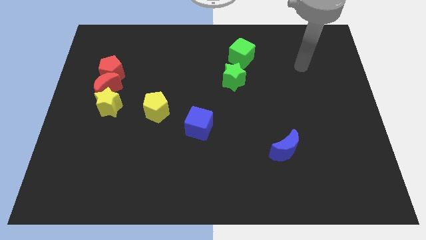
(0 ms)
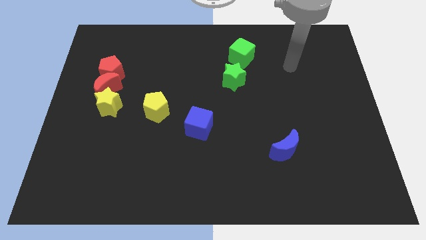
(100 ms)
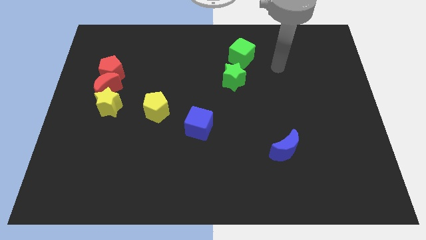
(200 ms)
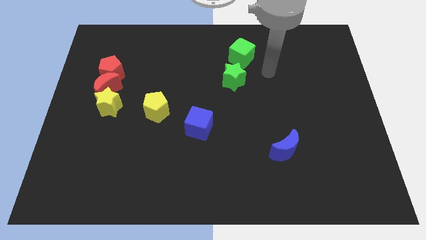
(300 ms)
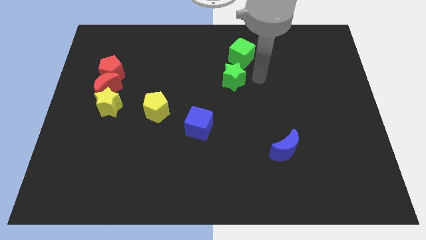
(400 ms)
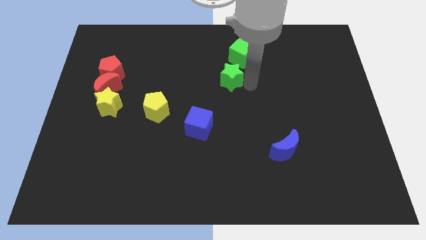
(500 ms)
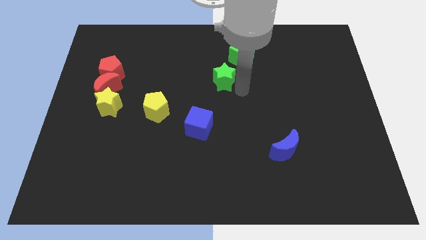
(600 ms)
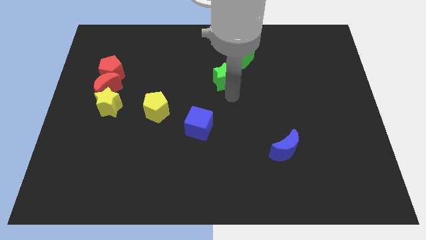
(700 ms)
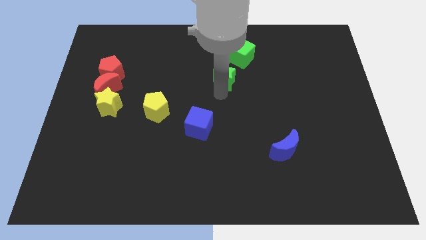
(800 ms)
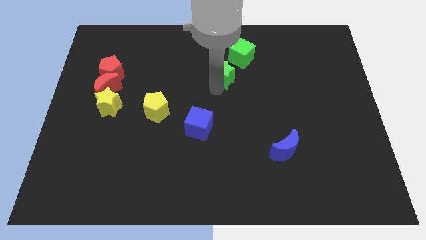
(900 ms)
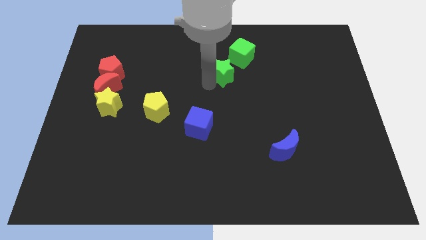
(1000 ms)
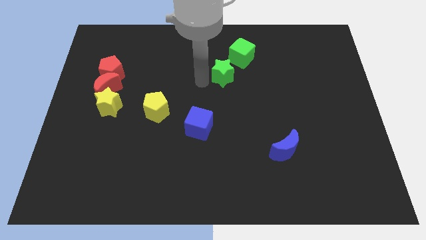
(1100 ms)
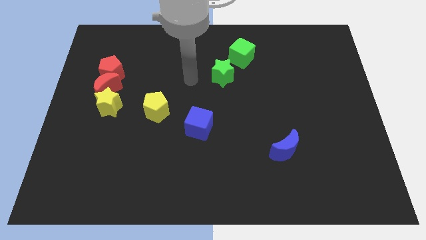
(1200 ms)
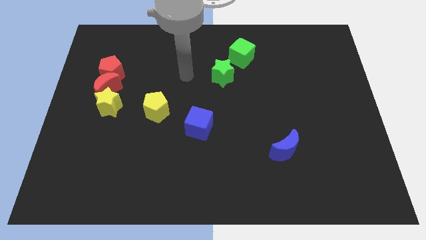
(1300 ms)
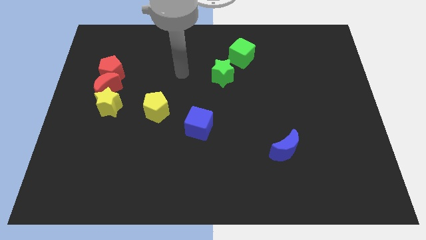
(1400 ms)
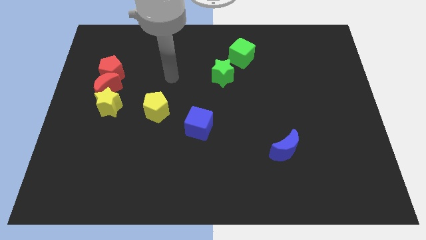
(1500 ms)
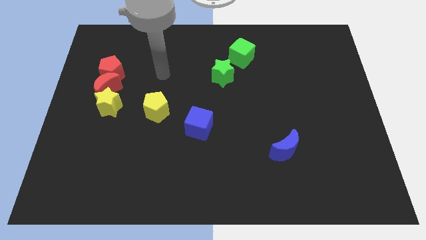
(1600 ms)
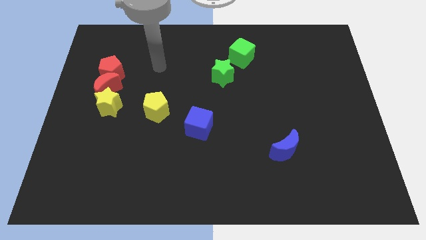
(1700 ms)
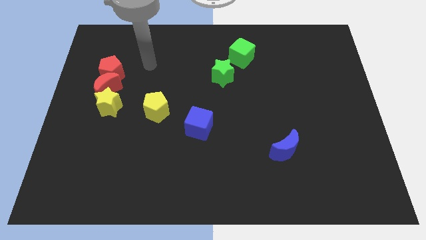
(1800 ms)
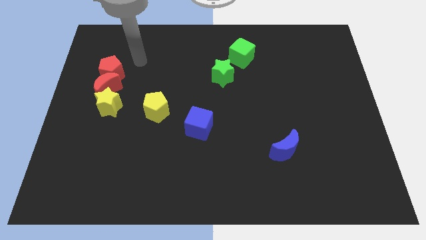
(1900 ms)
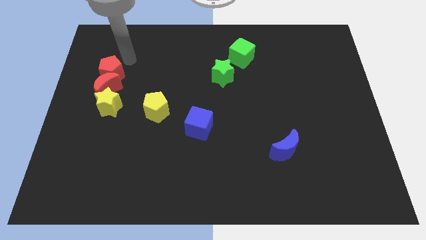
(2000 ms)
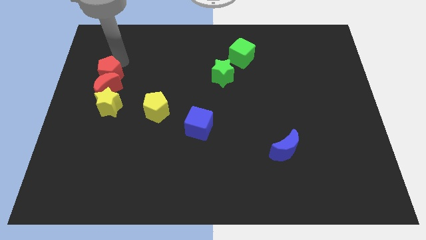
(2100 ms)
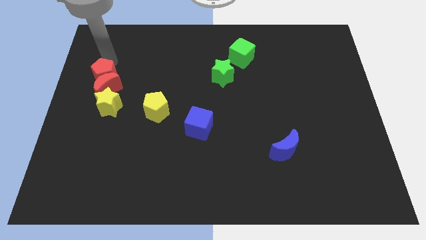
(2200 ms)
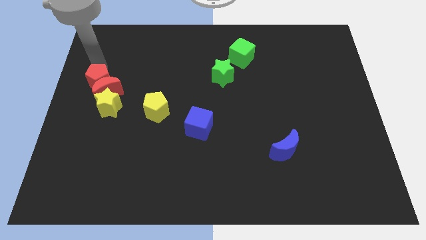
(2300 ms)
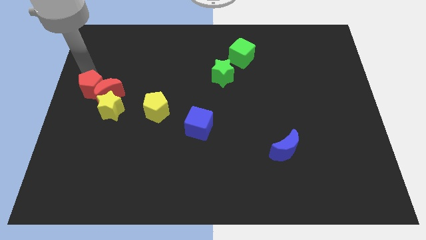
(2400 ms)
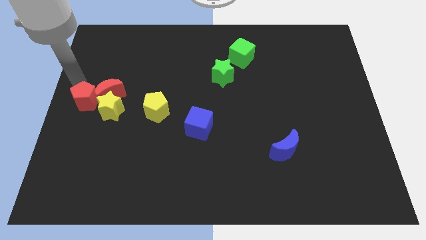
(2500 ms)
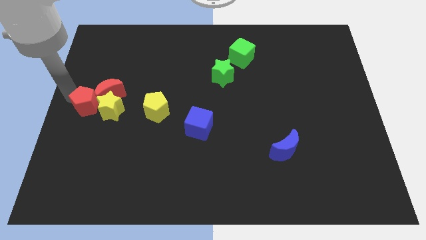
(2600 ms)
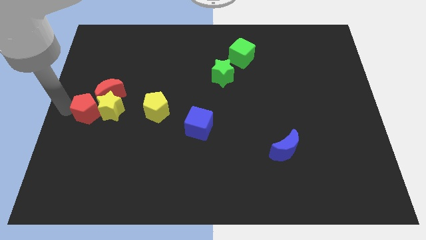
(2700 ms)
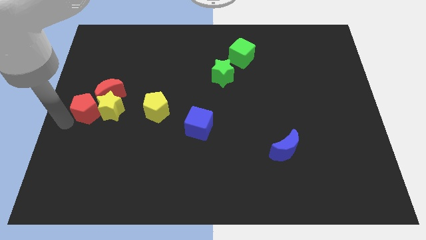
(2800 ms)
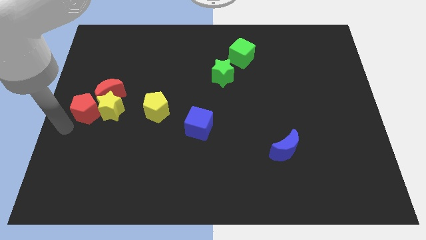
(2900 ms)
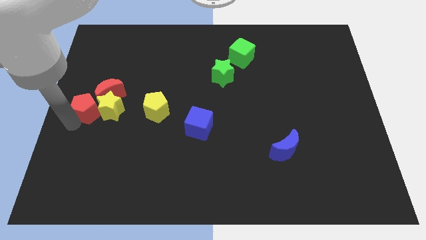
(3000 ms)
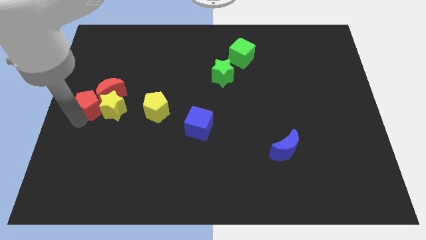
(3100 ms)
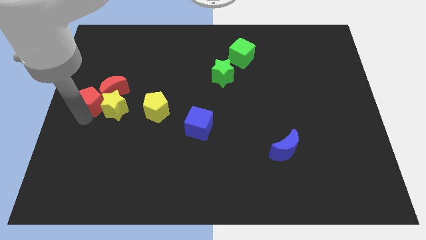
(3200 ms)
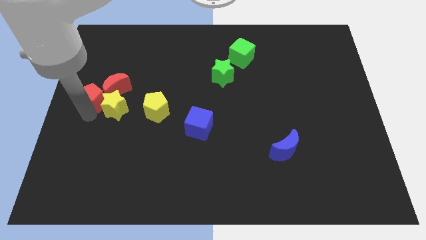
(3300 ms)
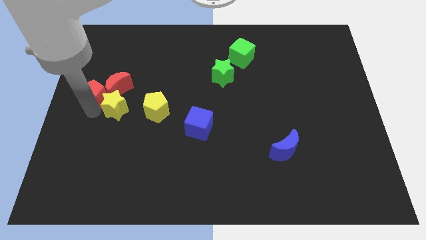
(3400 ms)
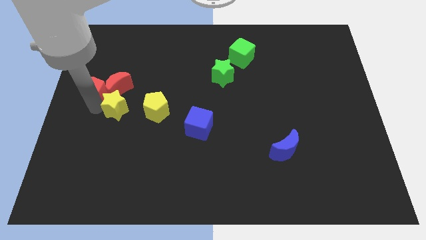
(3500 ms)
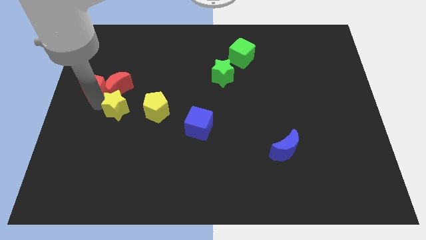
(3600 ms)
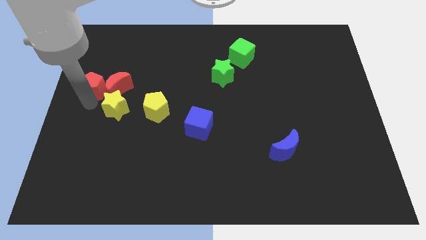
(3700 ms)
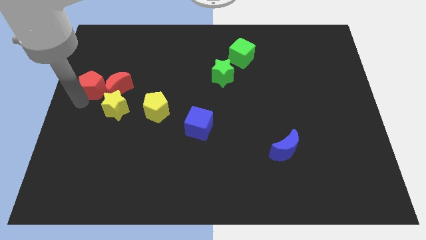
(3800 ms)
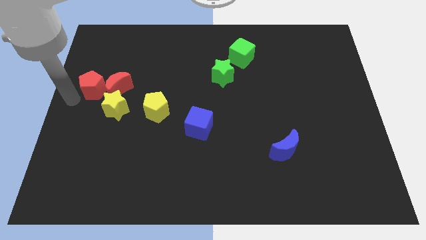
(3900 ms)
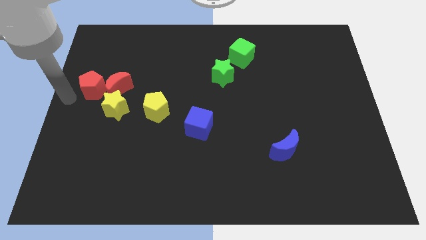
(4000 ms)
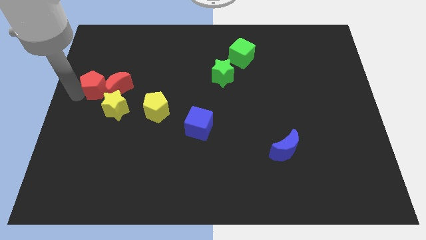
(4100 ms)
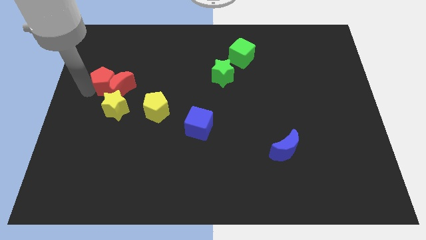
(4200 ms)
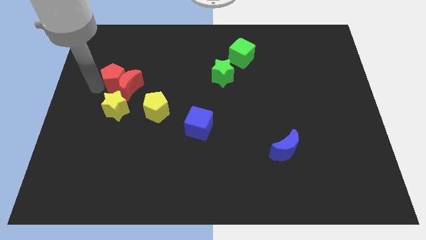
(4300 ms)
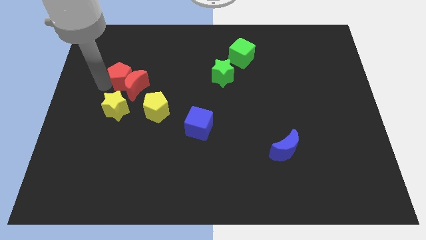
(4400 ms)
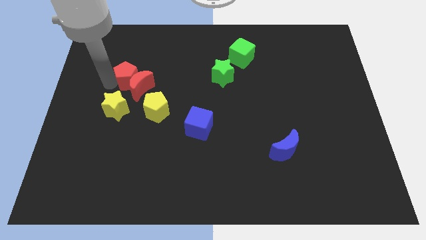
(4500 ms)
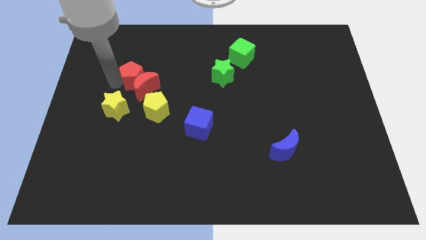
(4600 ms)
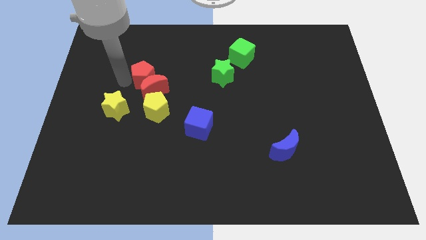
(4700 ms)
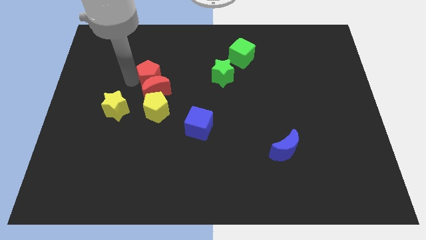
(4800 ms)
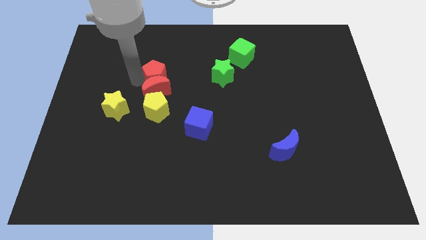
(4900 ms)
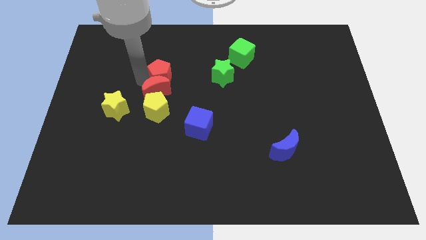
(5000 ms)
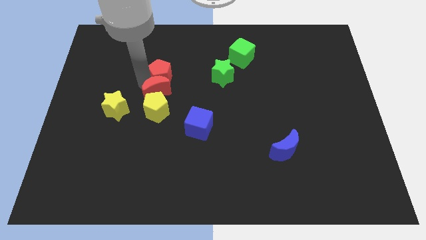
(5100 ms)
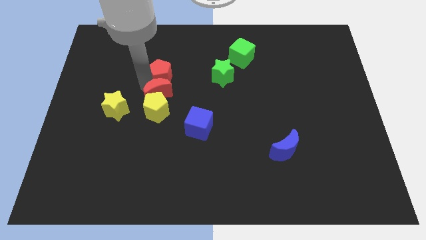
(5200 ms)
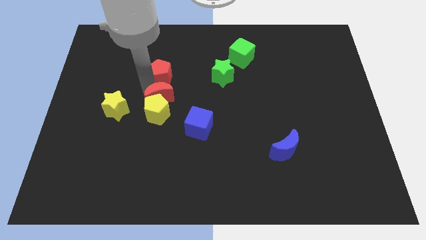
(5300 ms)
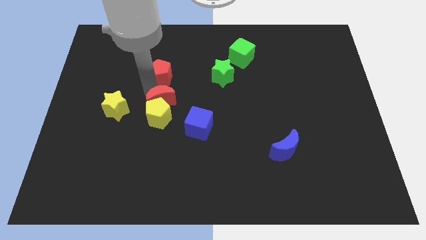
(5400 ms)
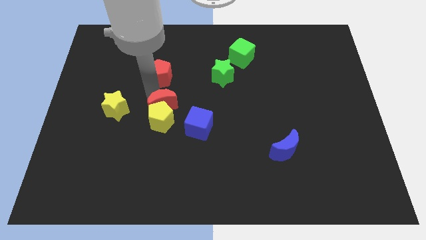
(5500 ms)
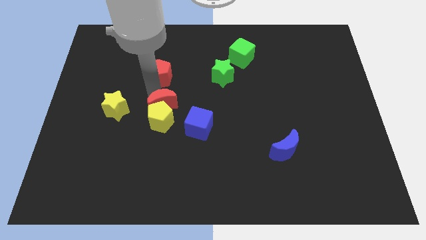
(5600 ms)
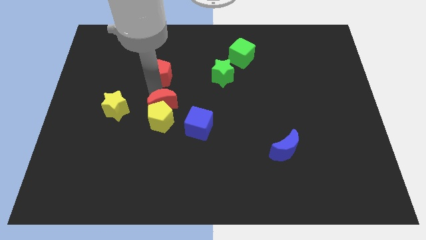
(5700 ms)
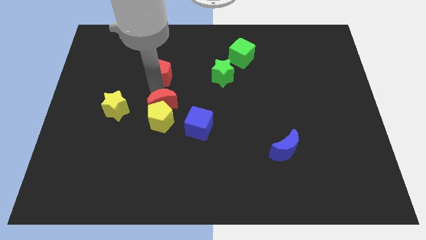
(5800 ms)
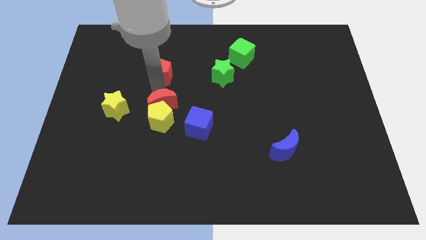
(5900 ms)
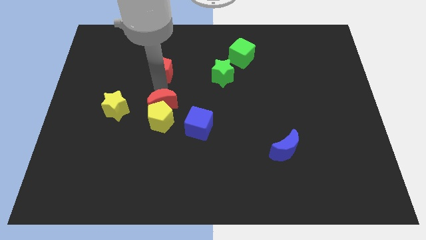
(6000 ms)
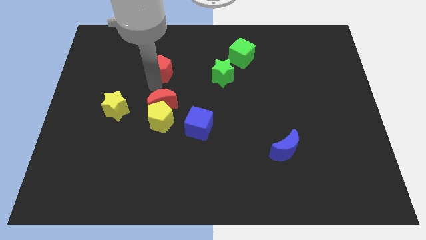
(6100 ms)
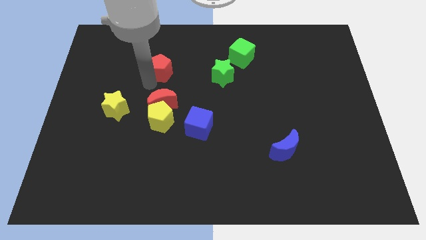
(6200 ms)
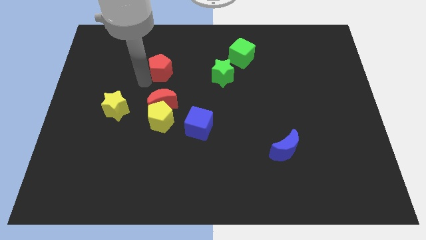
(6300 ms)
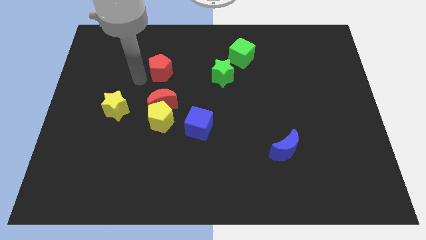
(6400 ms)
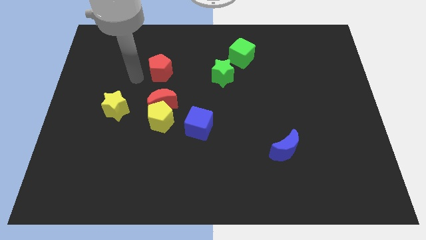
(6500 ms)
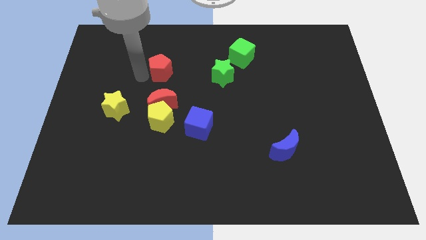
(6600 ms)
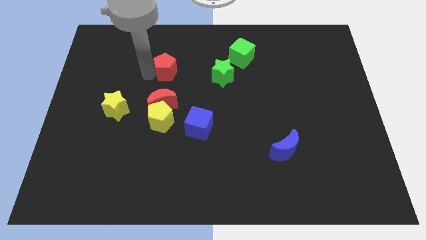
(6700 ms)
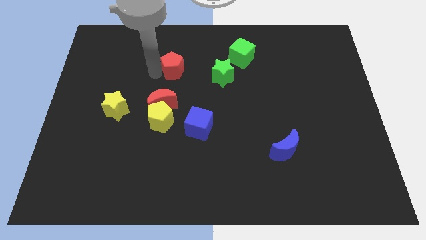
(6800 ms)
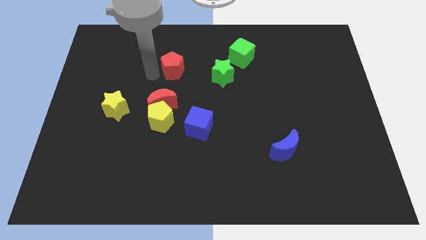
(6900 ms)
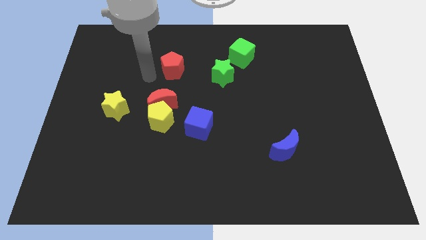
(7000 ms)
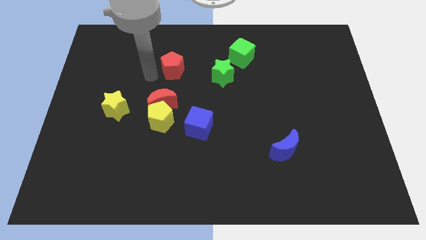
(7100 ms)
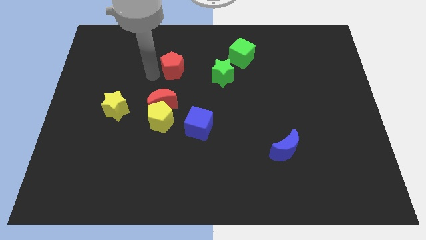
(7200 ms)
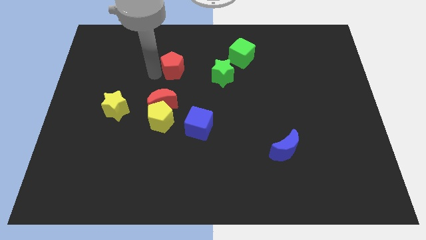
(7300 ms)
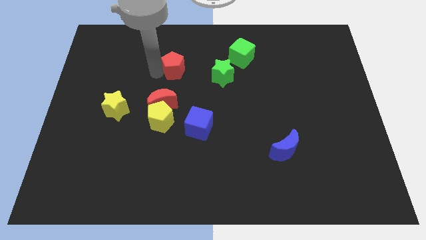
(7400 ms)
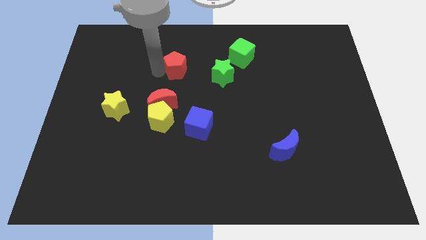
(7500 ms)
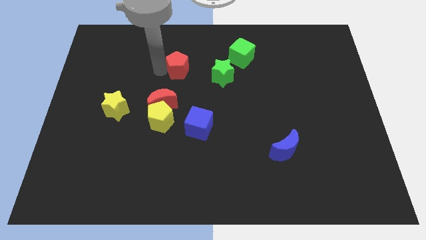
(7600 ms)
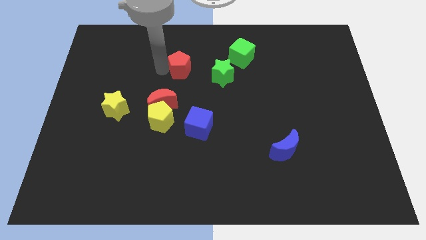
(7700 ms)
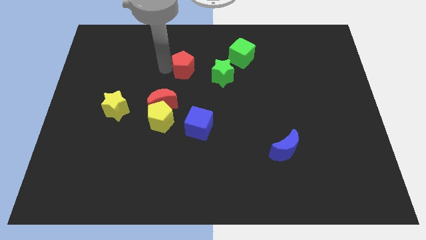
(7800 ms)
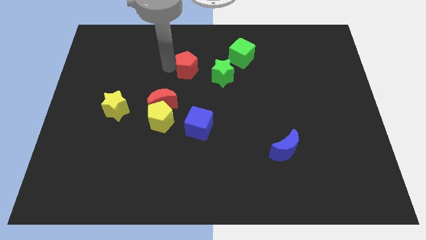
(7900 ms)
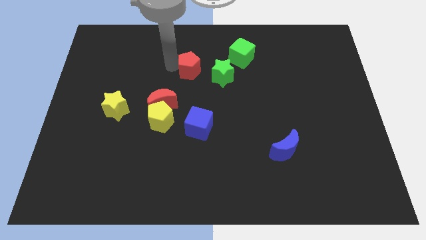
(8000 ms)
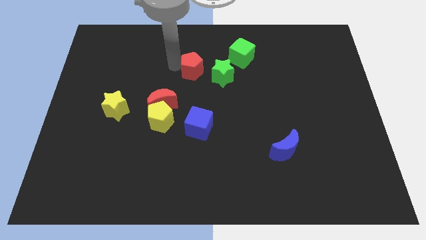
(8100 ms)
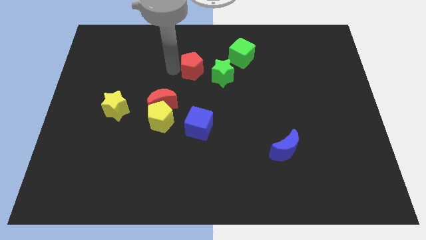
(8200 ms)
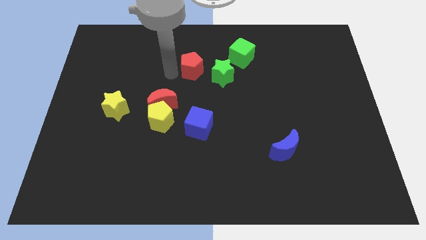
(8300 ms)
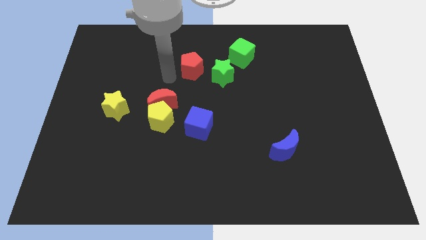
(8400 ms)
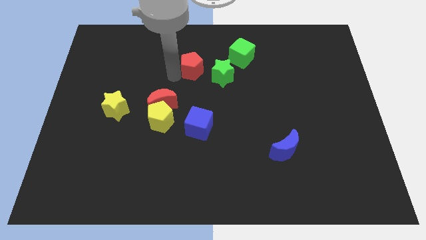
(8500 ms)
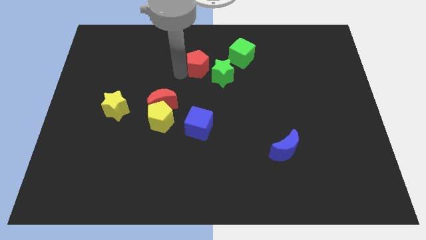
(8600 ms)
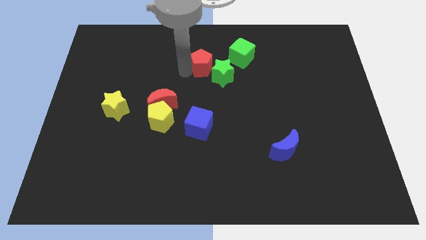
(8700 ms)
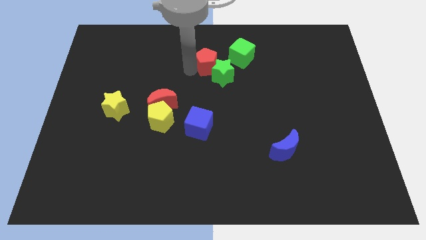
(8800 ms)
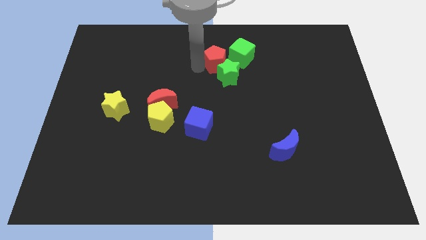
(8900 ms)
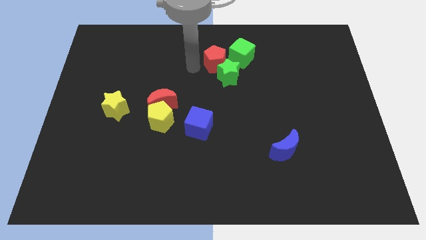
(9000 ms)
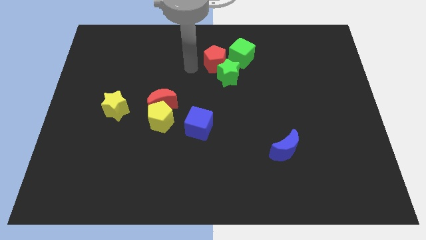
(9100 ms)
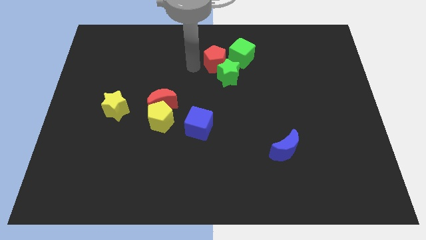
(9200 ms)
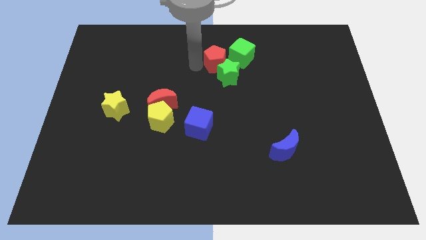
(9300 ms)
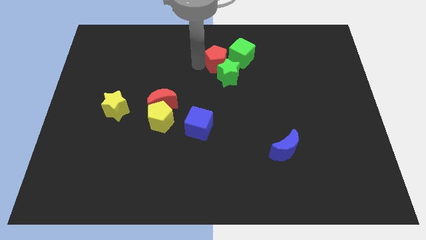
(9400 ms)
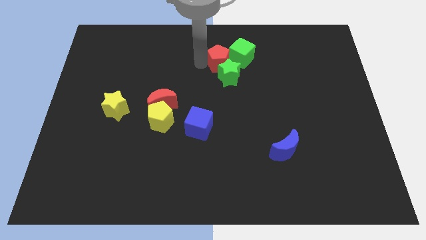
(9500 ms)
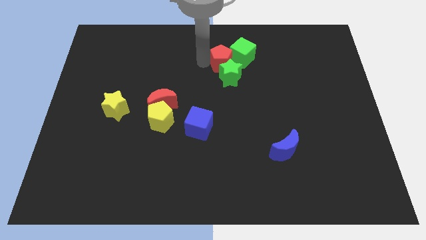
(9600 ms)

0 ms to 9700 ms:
move the red pentagon towards the green cube
